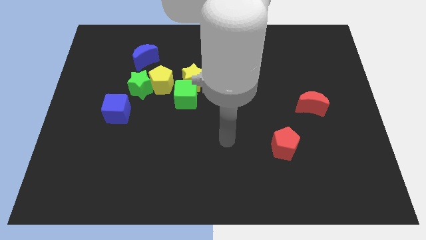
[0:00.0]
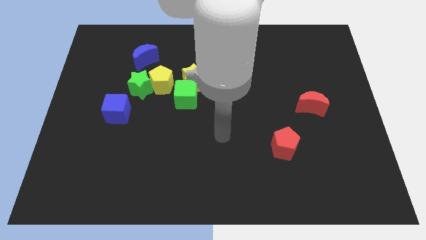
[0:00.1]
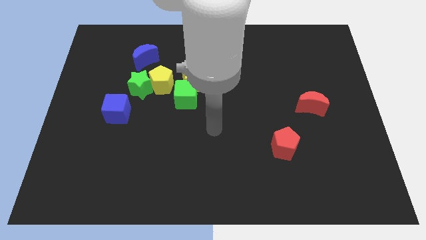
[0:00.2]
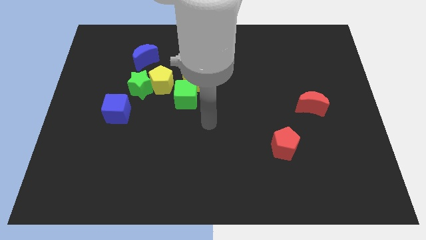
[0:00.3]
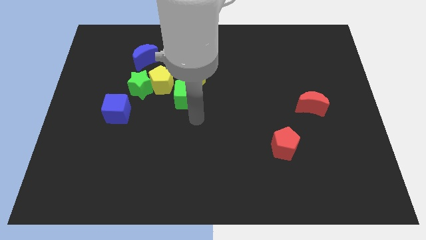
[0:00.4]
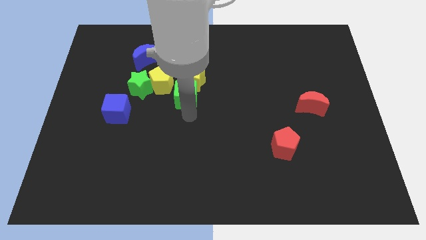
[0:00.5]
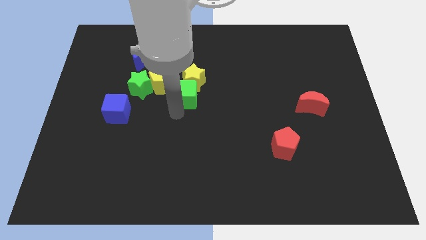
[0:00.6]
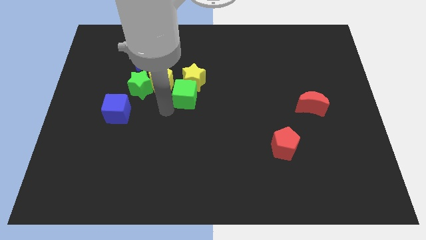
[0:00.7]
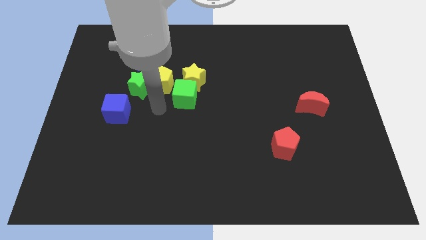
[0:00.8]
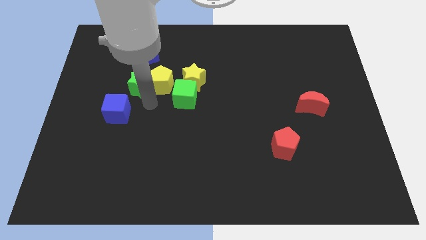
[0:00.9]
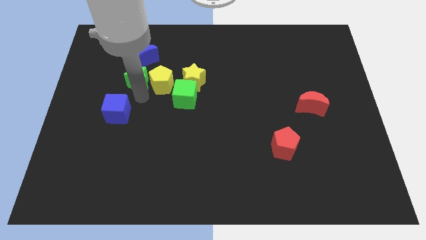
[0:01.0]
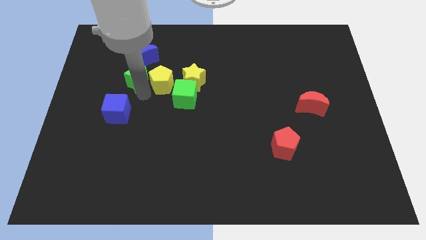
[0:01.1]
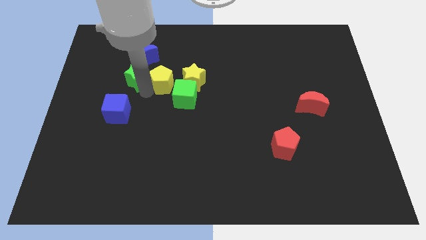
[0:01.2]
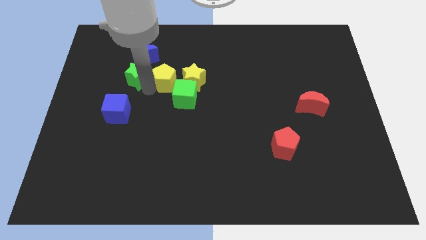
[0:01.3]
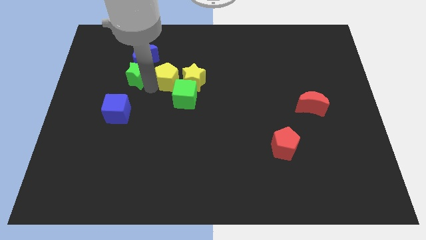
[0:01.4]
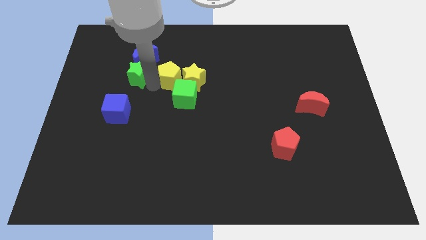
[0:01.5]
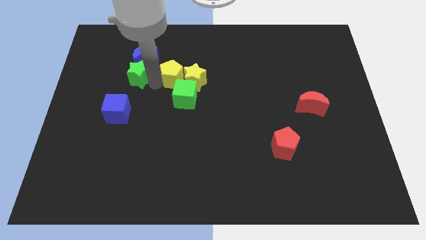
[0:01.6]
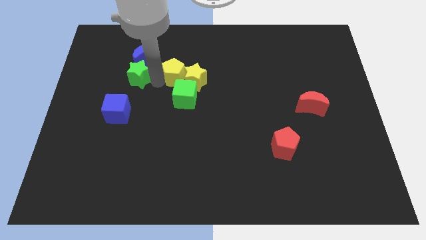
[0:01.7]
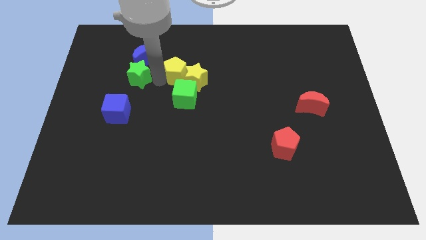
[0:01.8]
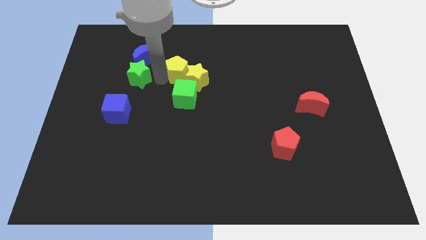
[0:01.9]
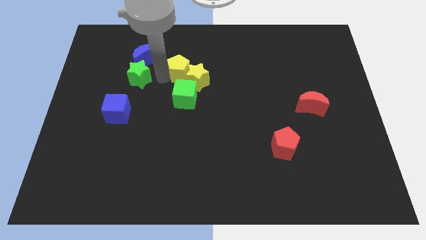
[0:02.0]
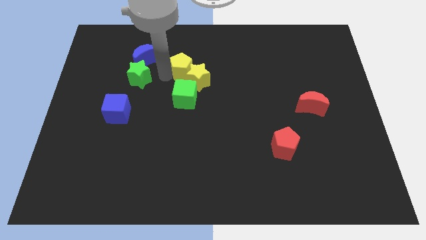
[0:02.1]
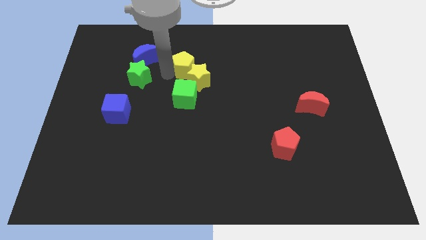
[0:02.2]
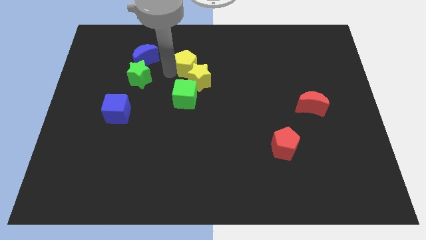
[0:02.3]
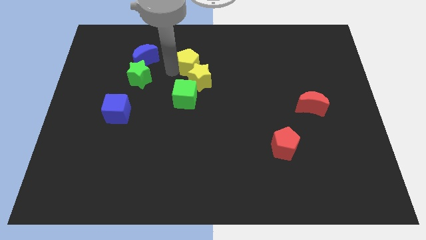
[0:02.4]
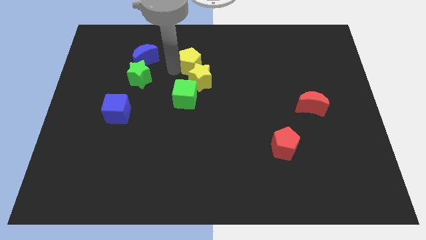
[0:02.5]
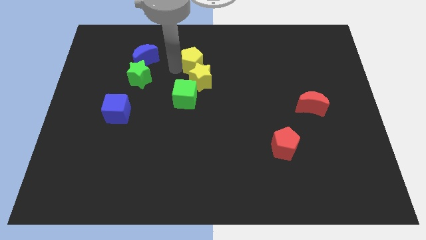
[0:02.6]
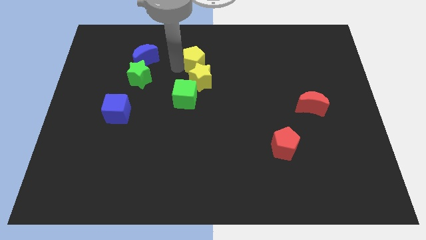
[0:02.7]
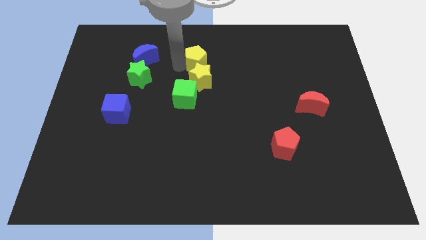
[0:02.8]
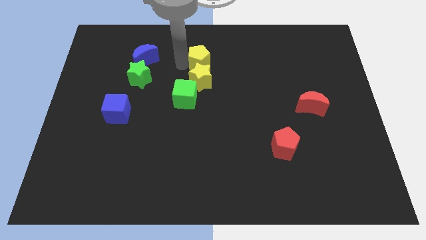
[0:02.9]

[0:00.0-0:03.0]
slide the yellow pentagon somewhat right

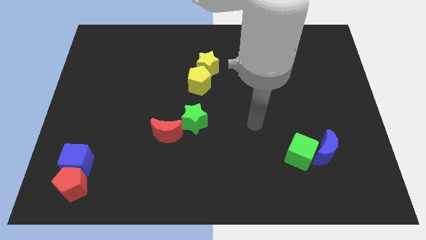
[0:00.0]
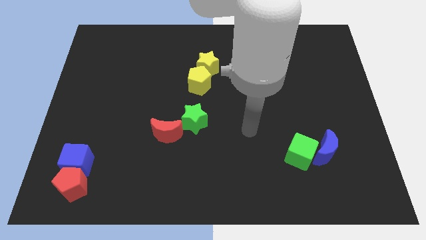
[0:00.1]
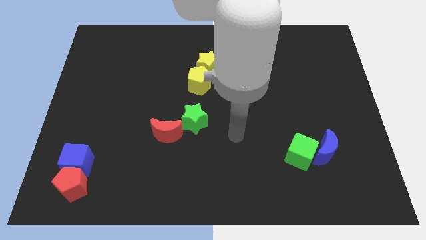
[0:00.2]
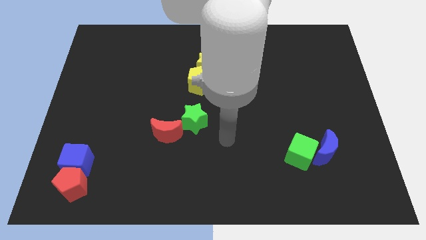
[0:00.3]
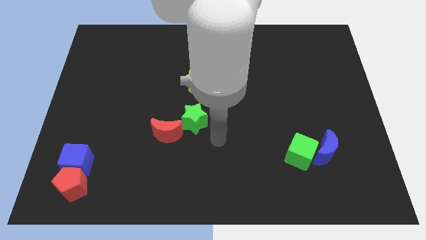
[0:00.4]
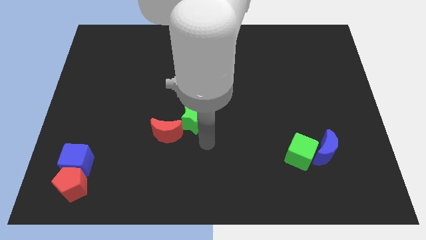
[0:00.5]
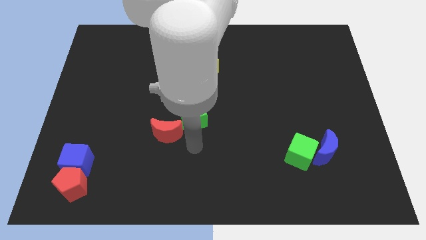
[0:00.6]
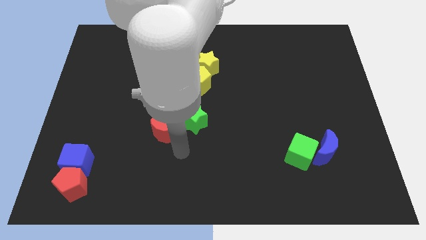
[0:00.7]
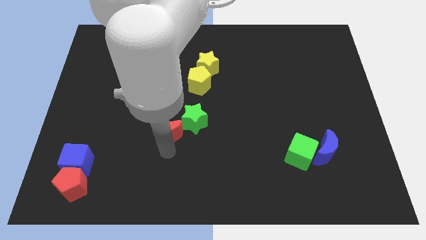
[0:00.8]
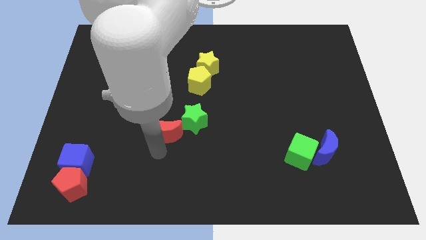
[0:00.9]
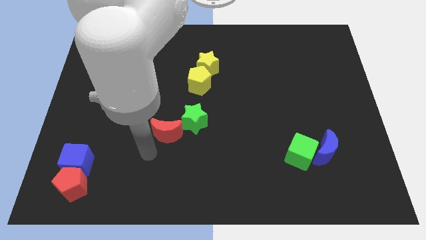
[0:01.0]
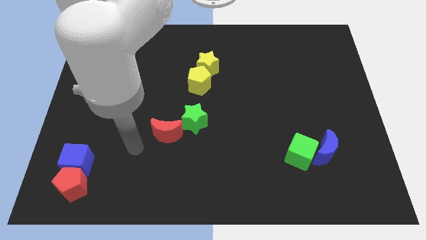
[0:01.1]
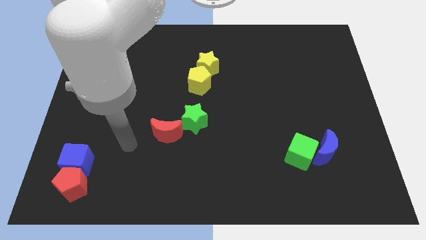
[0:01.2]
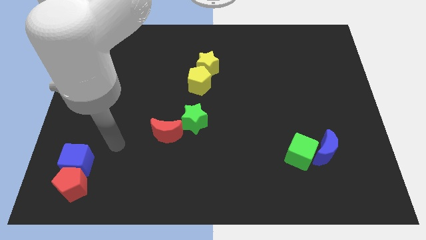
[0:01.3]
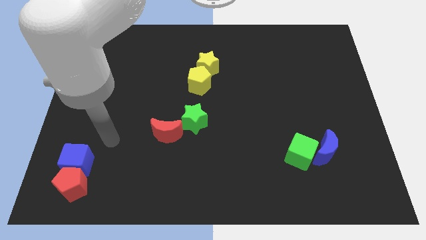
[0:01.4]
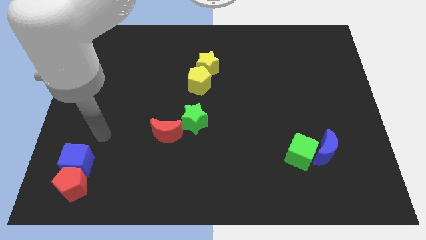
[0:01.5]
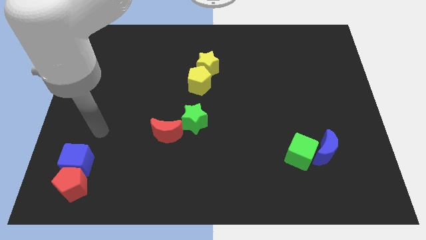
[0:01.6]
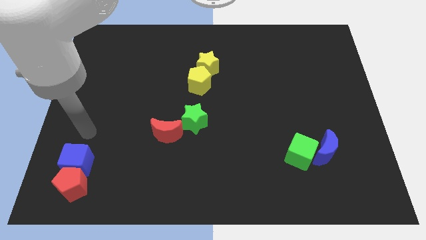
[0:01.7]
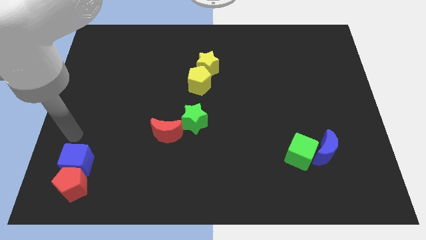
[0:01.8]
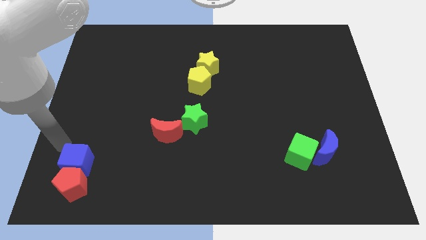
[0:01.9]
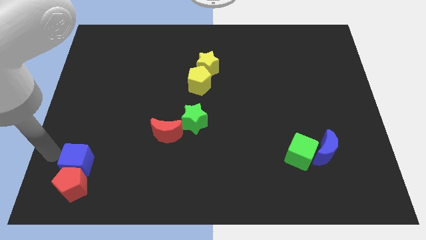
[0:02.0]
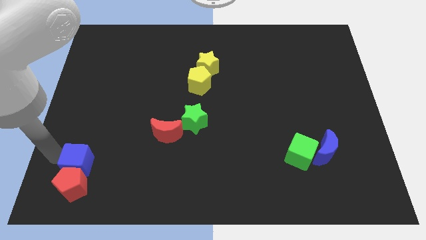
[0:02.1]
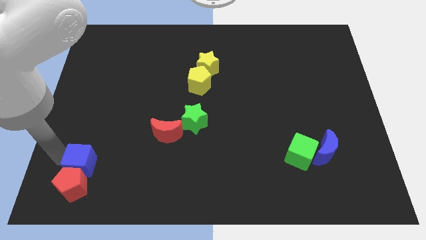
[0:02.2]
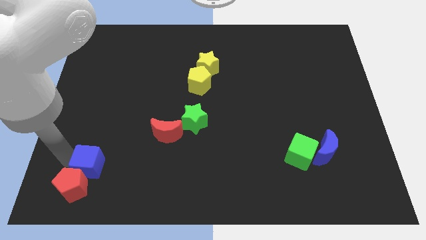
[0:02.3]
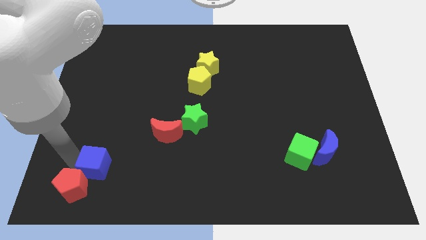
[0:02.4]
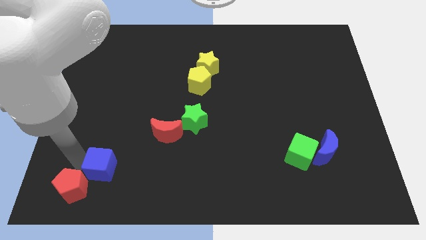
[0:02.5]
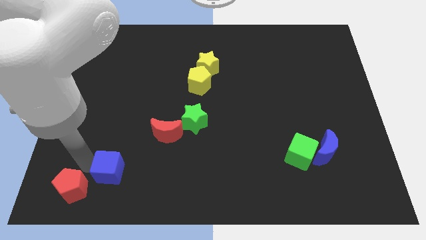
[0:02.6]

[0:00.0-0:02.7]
push the blue cube slightly right

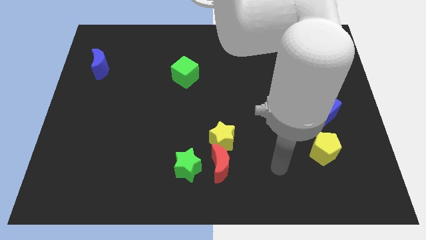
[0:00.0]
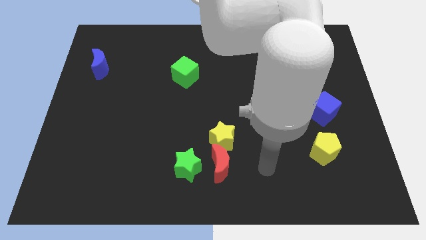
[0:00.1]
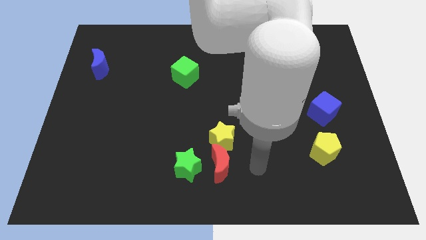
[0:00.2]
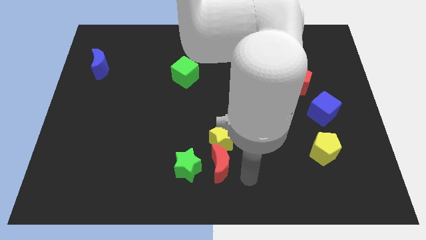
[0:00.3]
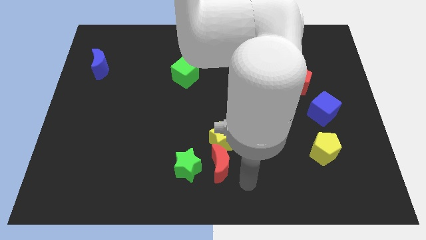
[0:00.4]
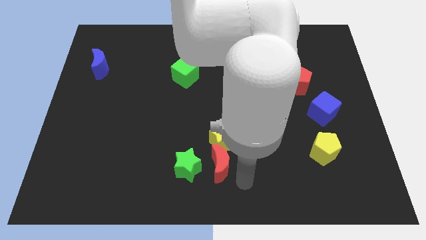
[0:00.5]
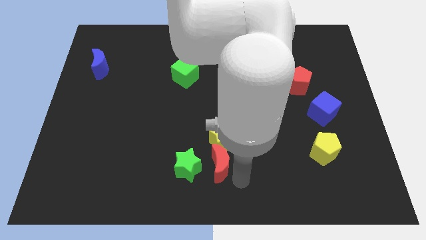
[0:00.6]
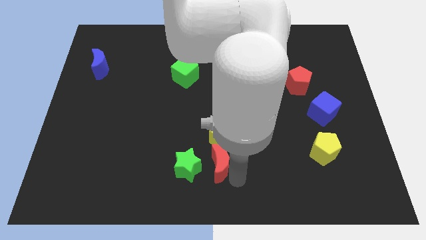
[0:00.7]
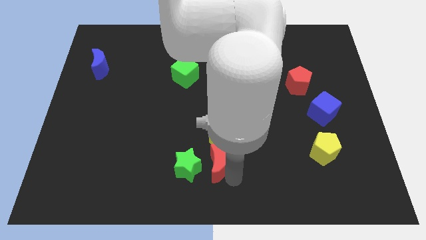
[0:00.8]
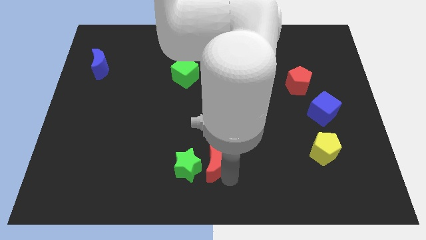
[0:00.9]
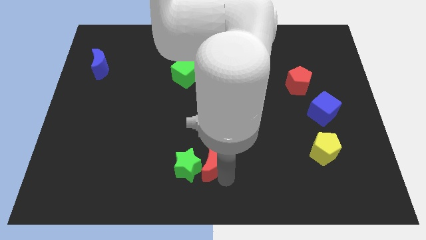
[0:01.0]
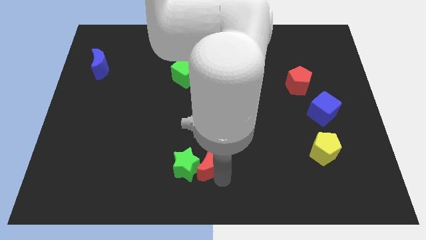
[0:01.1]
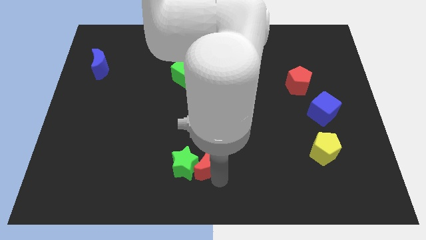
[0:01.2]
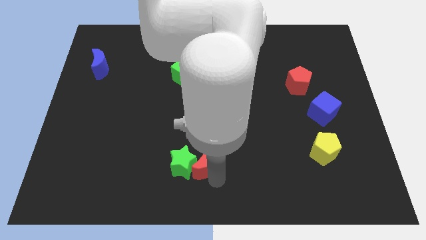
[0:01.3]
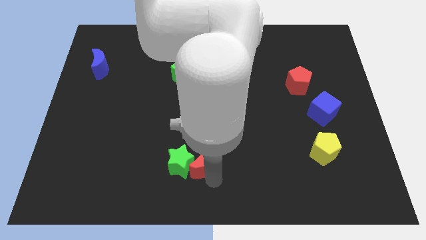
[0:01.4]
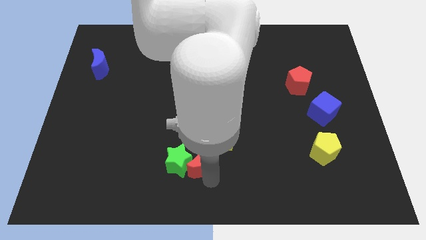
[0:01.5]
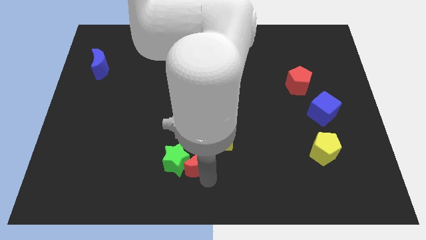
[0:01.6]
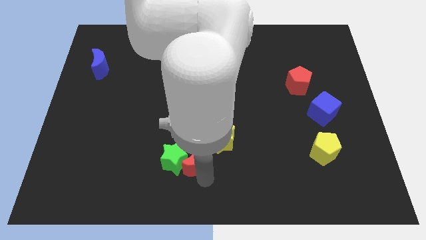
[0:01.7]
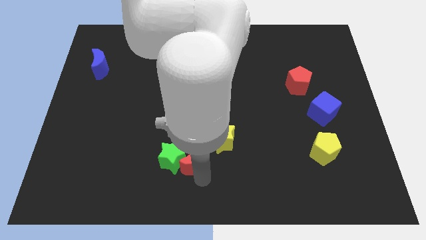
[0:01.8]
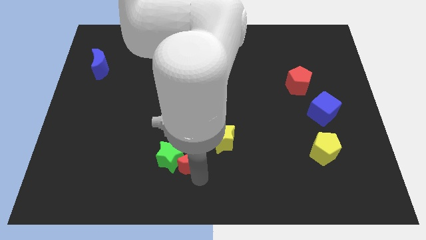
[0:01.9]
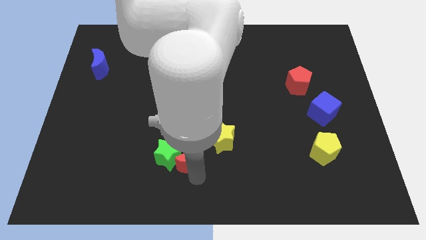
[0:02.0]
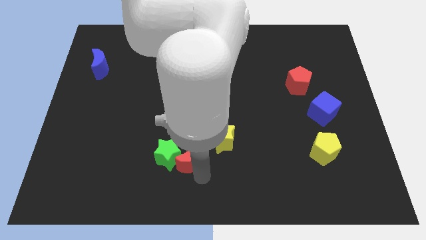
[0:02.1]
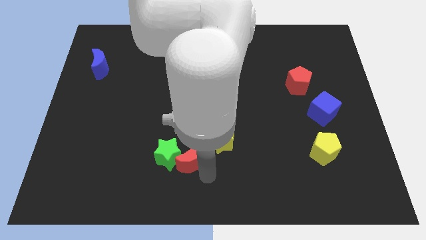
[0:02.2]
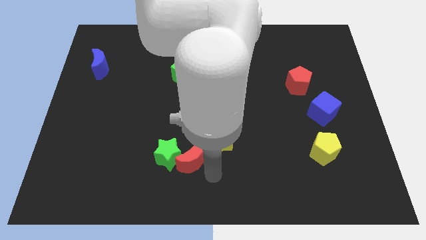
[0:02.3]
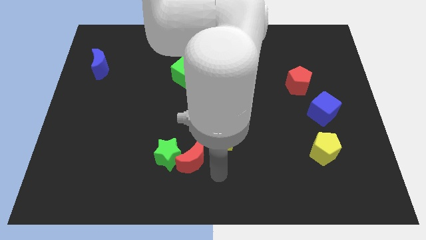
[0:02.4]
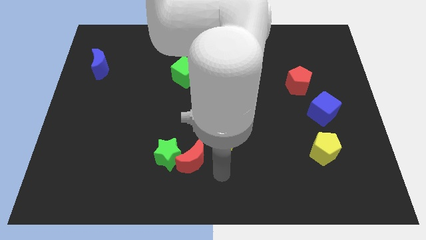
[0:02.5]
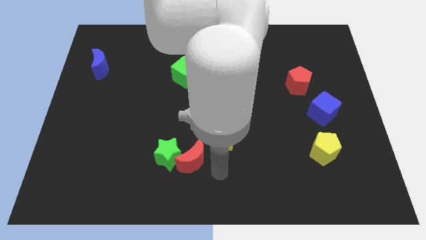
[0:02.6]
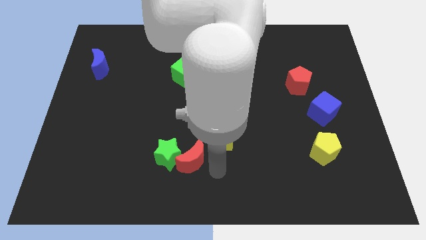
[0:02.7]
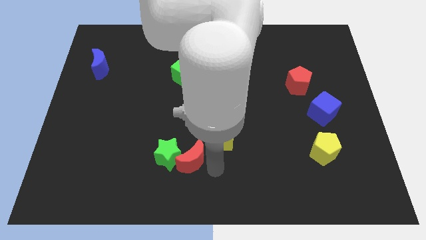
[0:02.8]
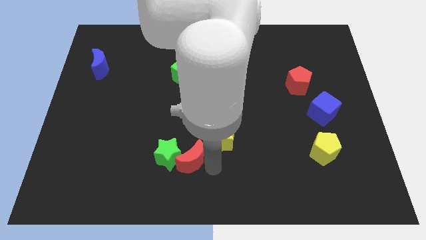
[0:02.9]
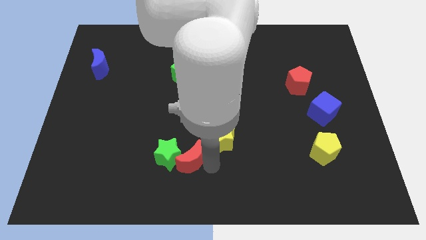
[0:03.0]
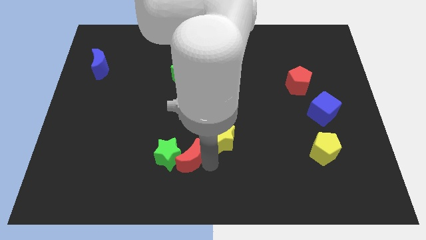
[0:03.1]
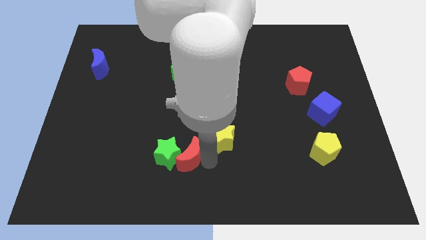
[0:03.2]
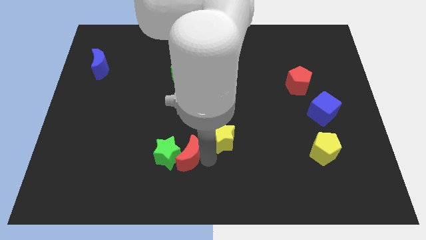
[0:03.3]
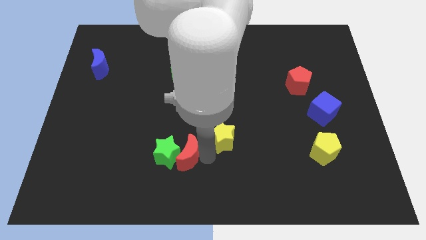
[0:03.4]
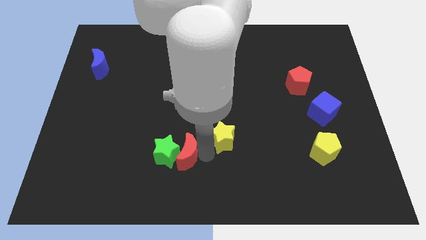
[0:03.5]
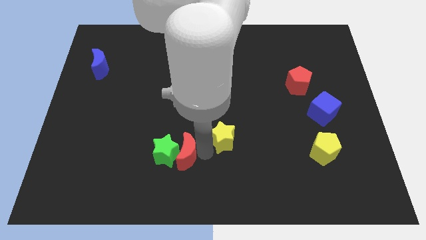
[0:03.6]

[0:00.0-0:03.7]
slide the red moon to the left a little bit
